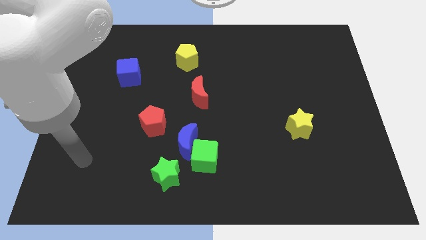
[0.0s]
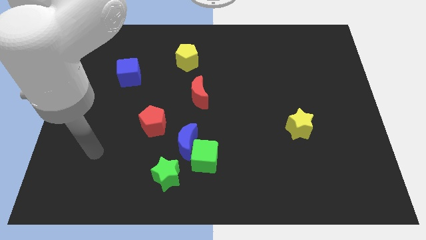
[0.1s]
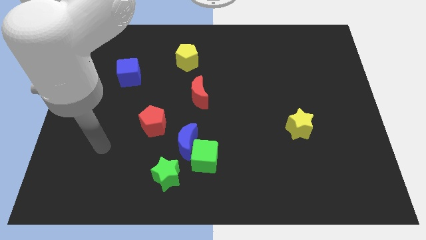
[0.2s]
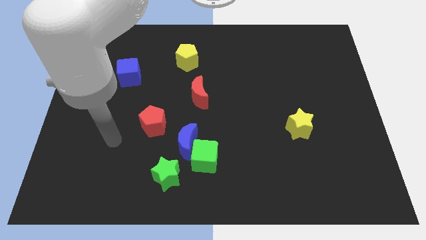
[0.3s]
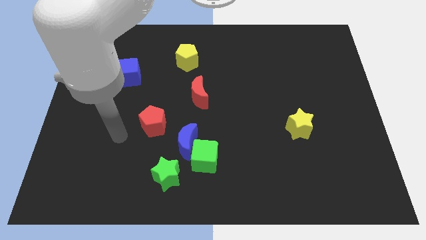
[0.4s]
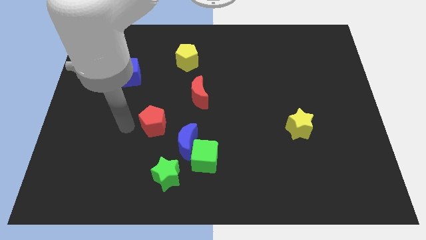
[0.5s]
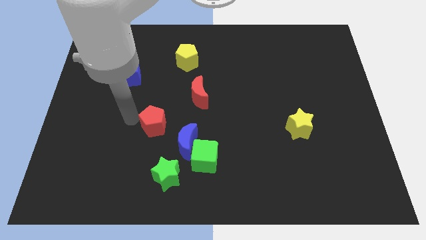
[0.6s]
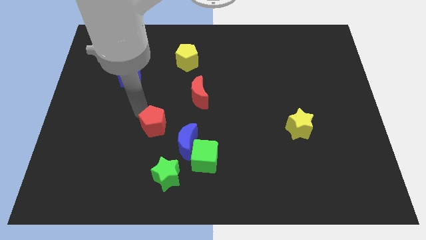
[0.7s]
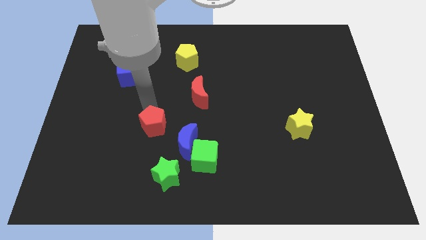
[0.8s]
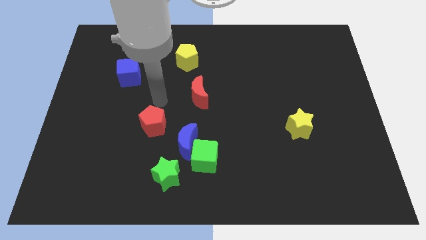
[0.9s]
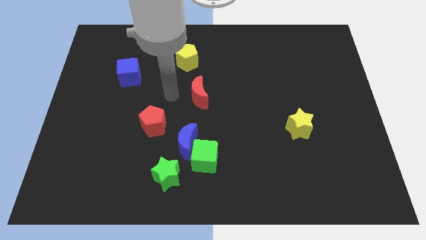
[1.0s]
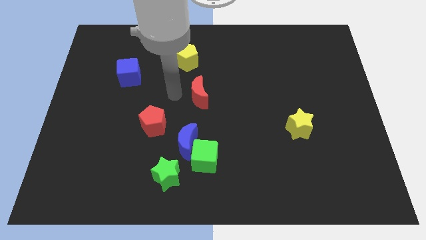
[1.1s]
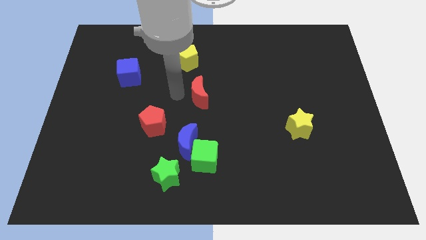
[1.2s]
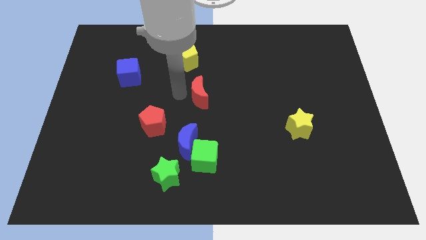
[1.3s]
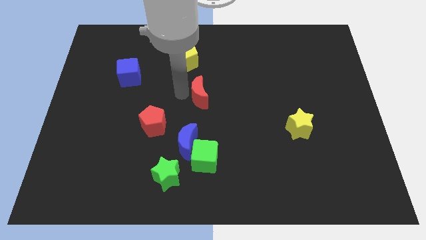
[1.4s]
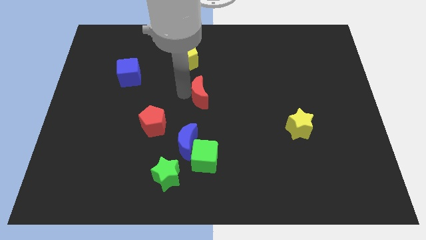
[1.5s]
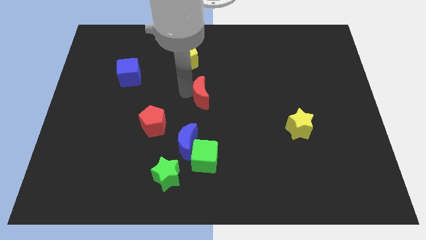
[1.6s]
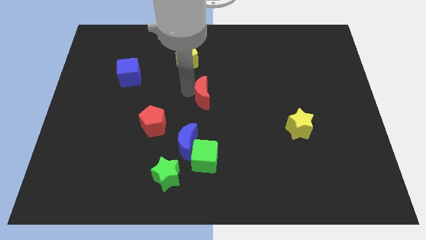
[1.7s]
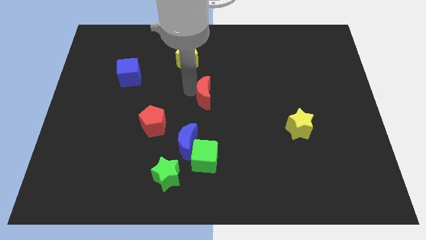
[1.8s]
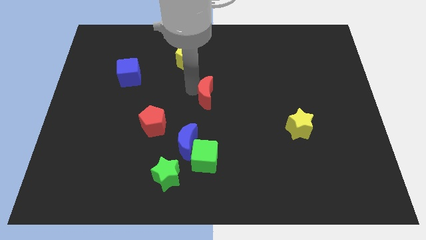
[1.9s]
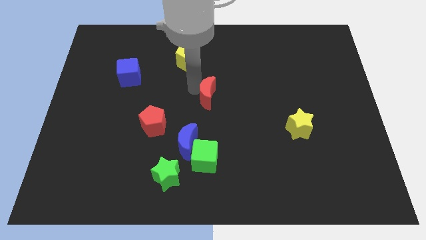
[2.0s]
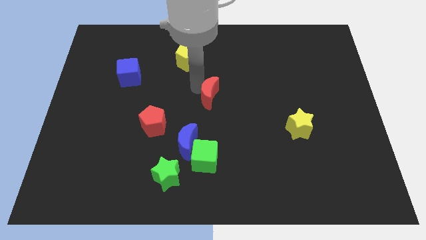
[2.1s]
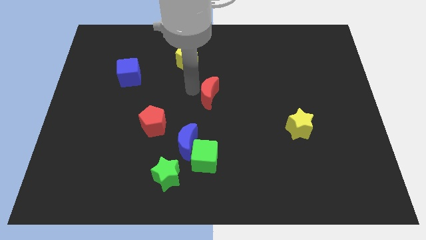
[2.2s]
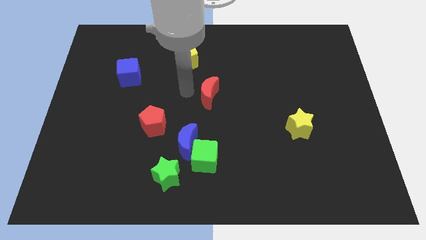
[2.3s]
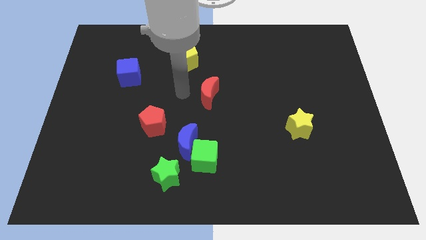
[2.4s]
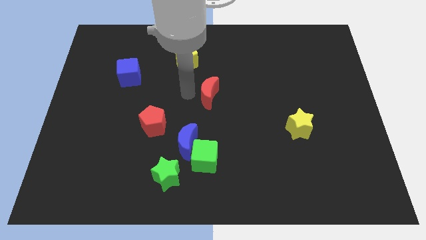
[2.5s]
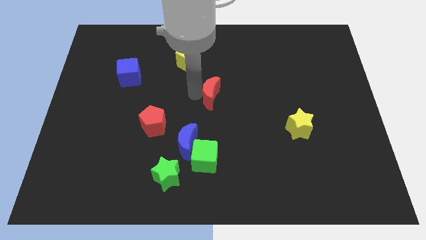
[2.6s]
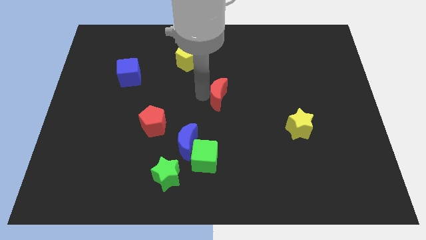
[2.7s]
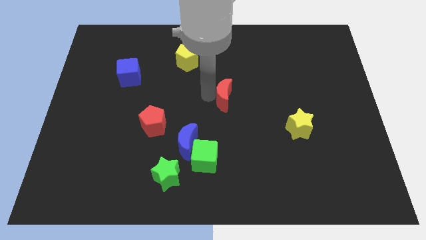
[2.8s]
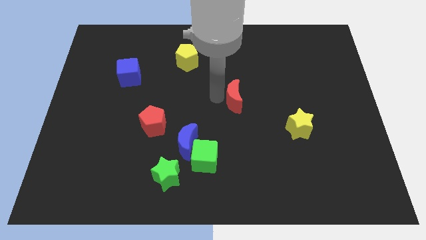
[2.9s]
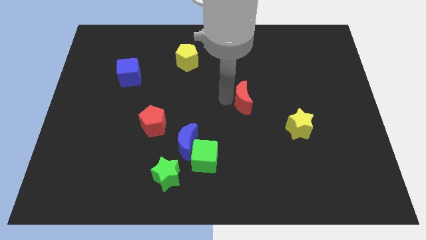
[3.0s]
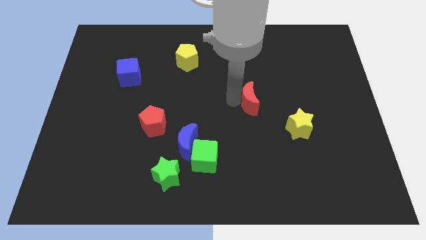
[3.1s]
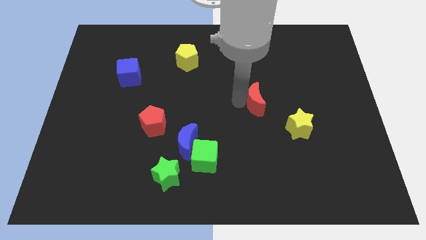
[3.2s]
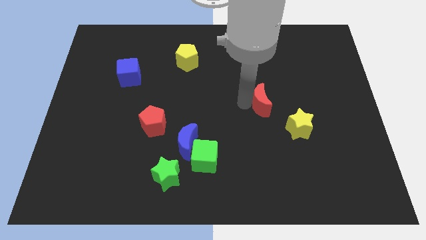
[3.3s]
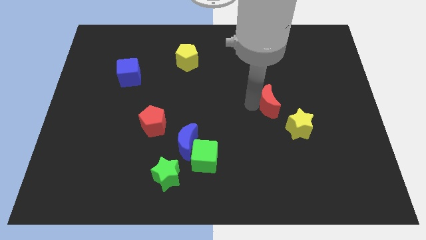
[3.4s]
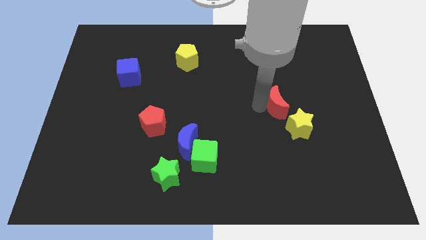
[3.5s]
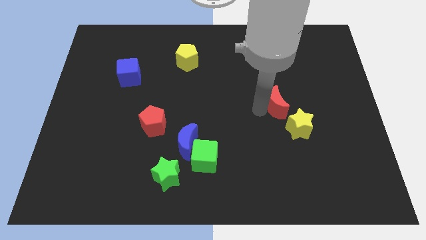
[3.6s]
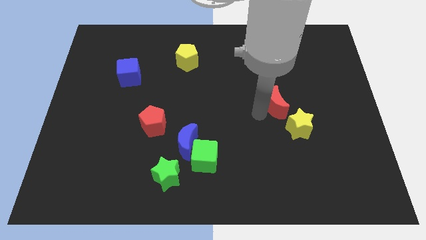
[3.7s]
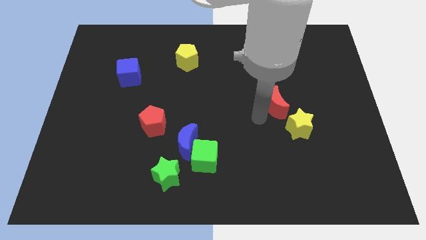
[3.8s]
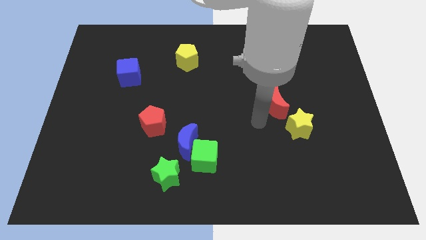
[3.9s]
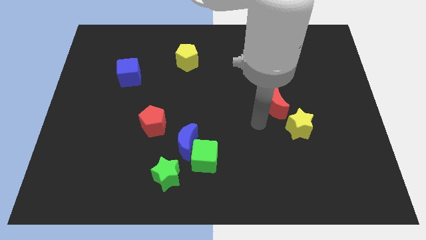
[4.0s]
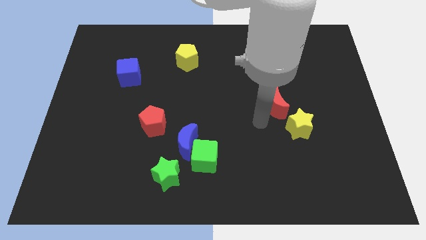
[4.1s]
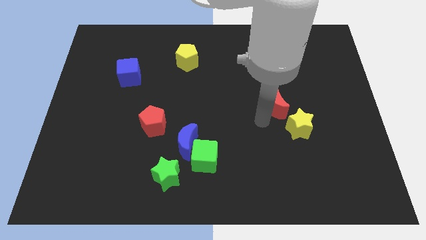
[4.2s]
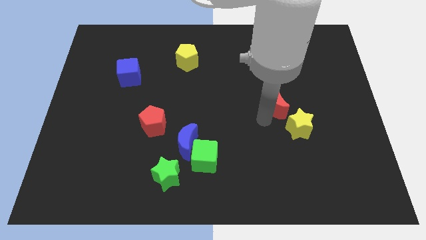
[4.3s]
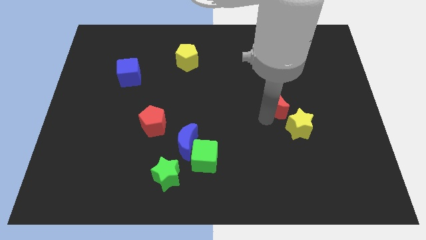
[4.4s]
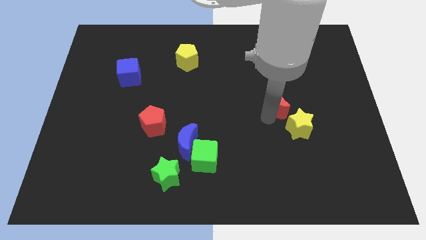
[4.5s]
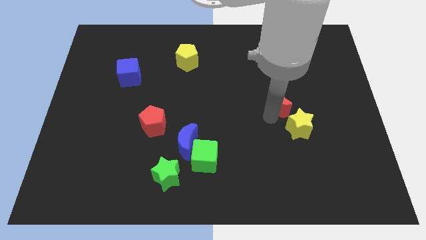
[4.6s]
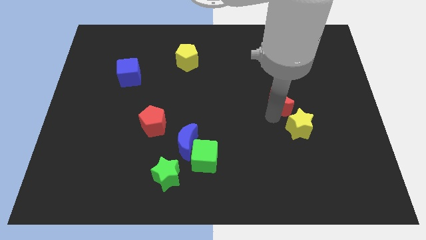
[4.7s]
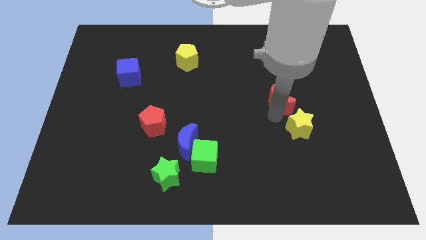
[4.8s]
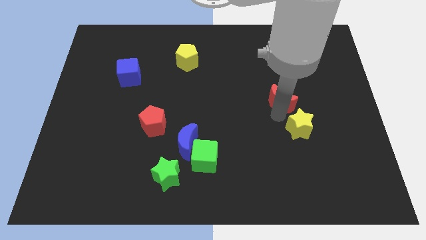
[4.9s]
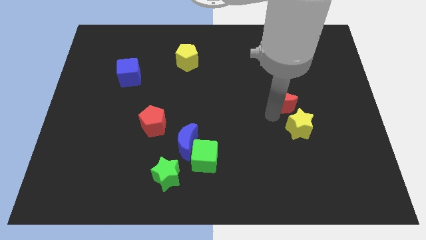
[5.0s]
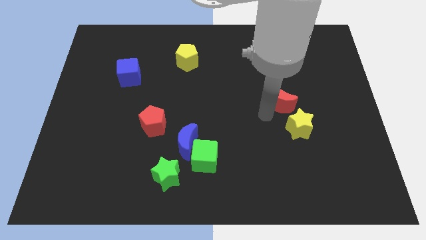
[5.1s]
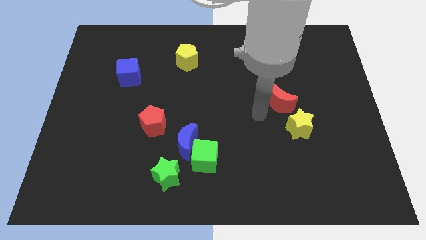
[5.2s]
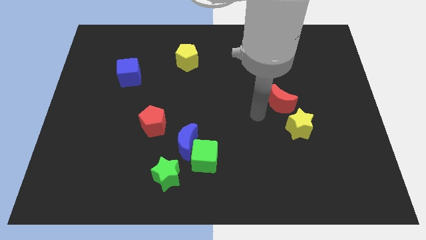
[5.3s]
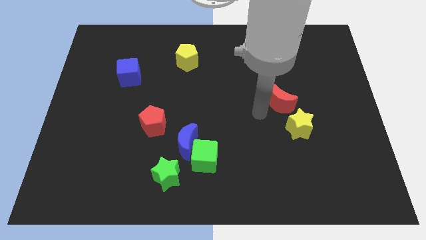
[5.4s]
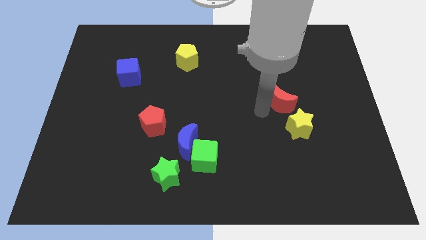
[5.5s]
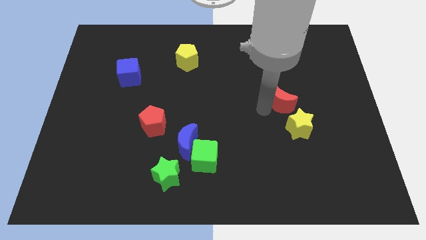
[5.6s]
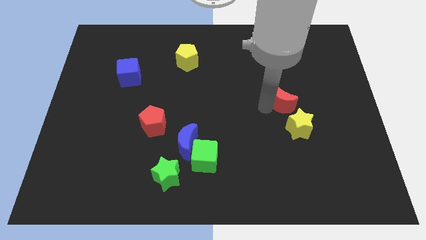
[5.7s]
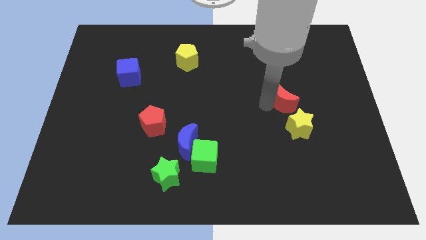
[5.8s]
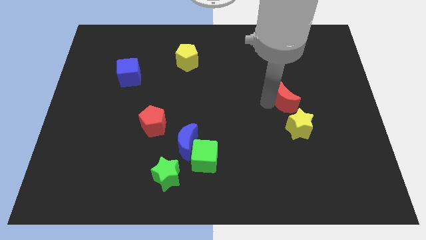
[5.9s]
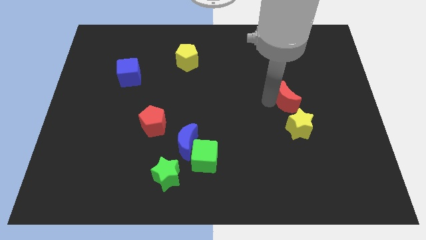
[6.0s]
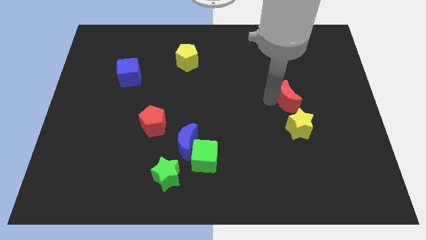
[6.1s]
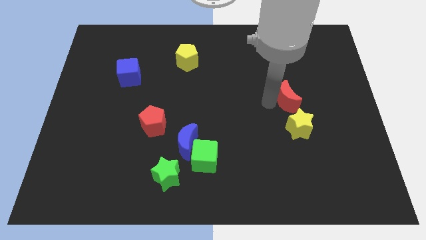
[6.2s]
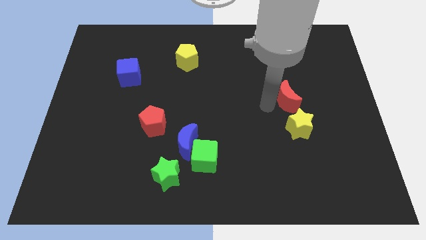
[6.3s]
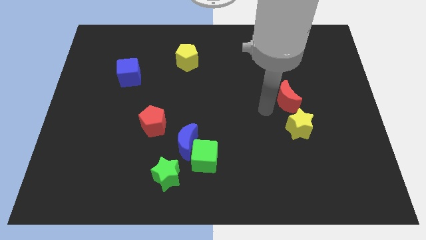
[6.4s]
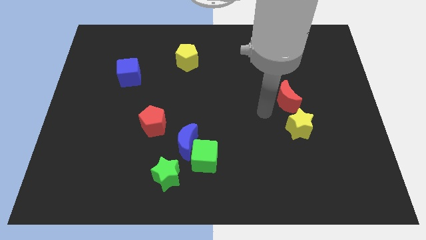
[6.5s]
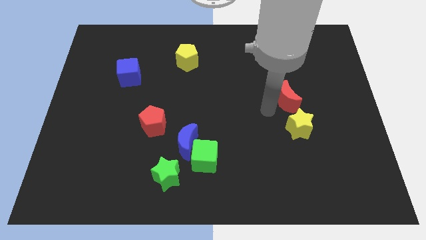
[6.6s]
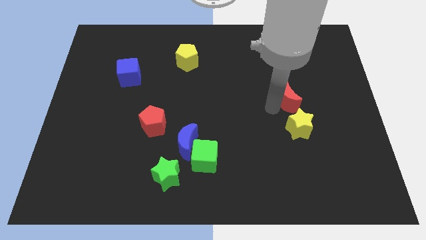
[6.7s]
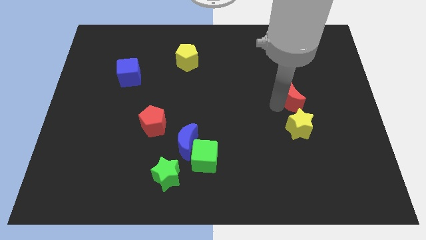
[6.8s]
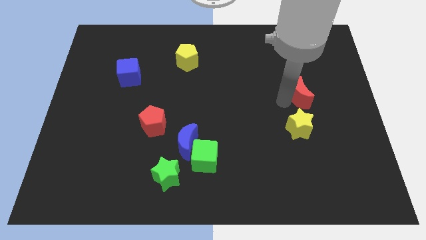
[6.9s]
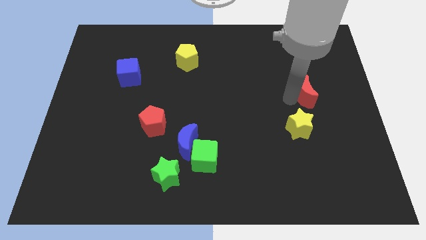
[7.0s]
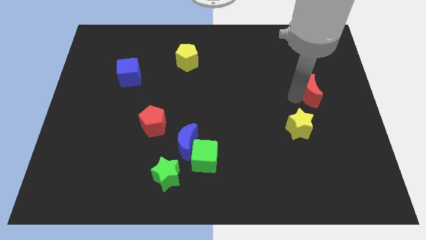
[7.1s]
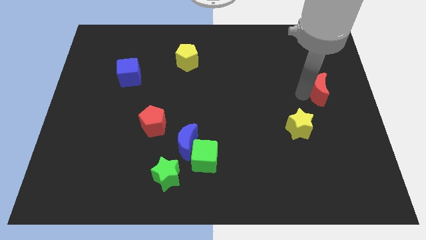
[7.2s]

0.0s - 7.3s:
put the red moon to the center right
